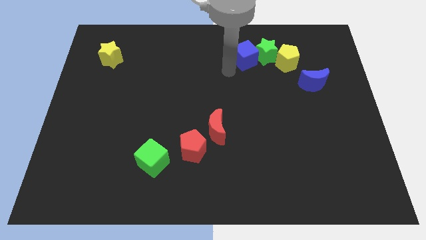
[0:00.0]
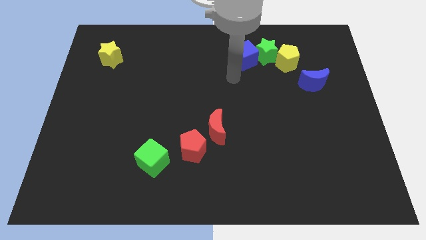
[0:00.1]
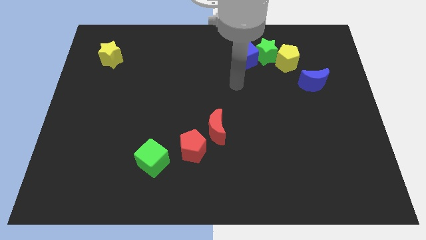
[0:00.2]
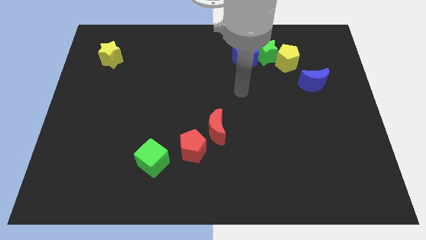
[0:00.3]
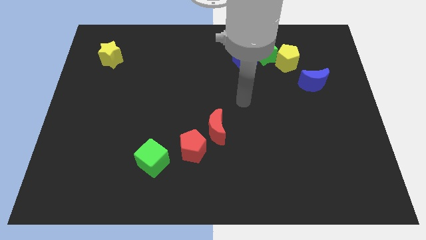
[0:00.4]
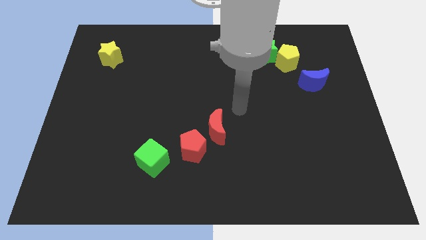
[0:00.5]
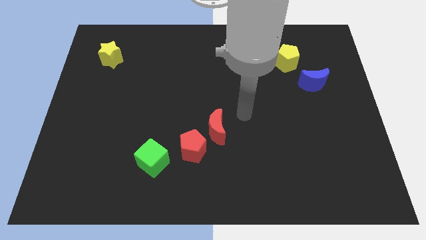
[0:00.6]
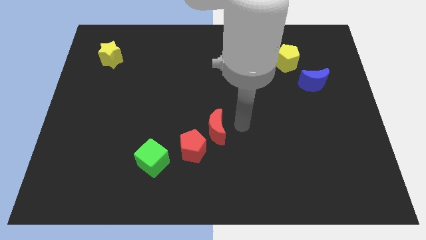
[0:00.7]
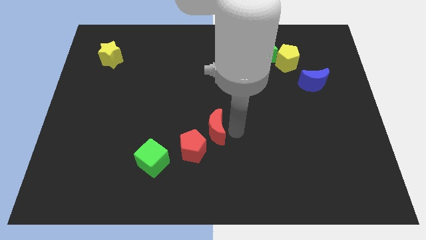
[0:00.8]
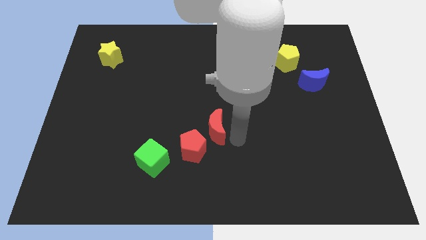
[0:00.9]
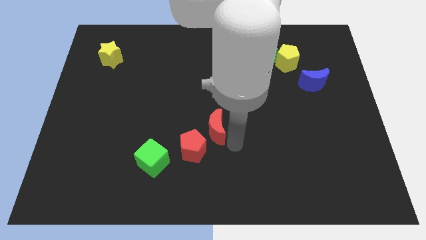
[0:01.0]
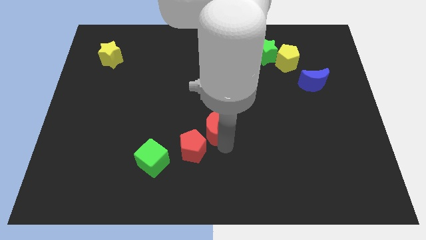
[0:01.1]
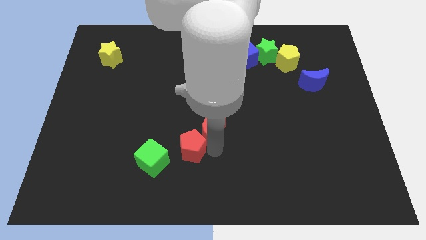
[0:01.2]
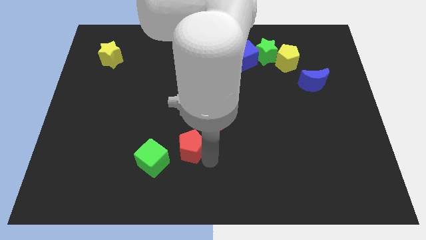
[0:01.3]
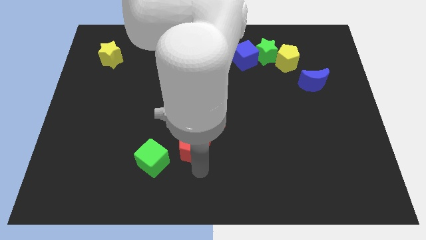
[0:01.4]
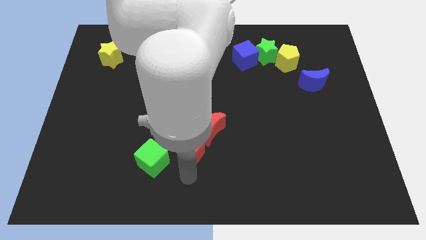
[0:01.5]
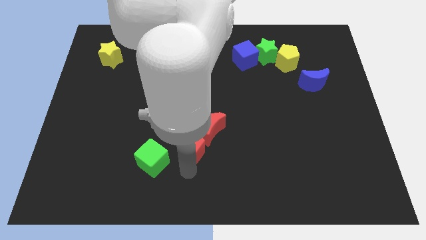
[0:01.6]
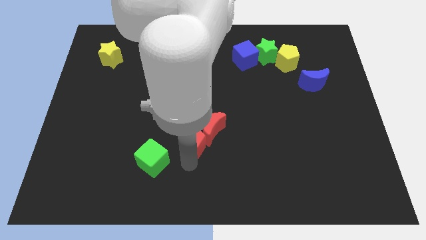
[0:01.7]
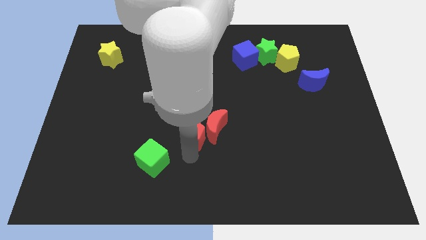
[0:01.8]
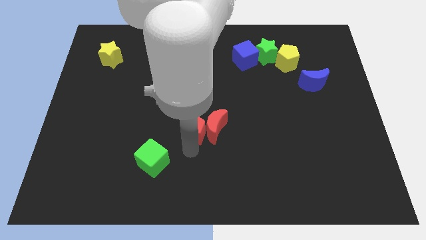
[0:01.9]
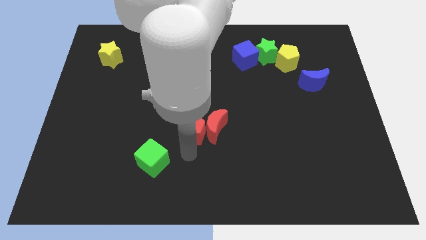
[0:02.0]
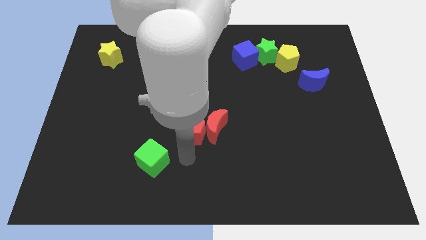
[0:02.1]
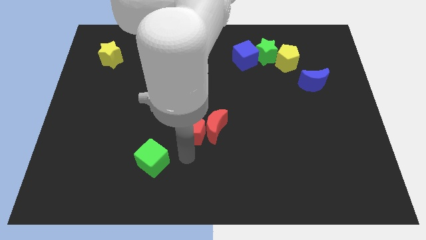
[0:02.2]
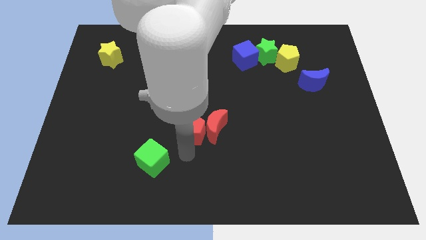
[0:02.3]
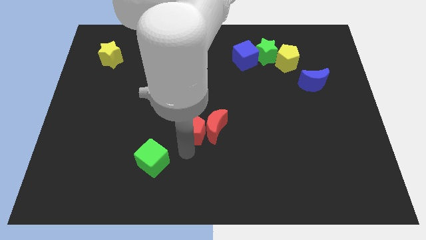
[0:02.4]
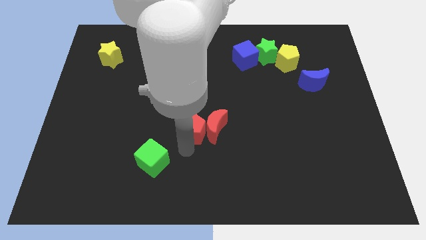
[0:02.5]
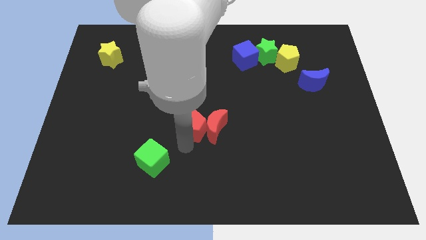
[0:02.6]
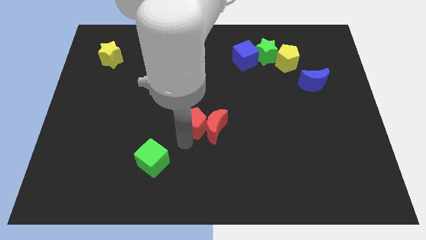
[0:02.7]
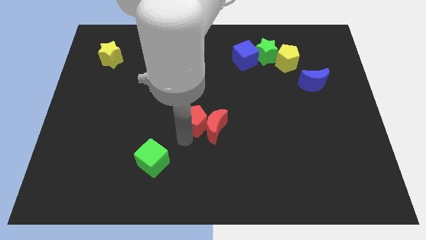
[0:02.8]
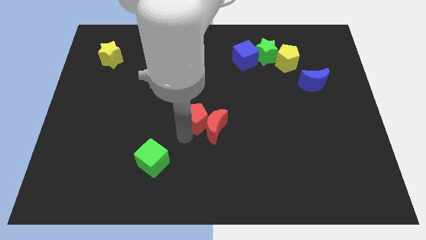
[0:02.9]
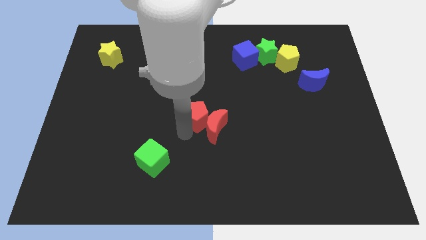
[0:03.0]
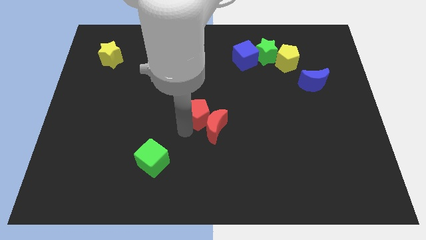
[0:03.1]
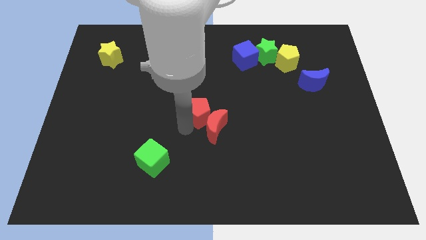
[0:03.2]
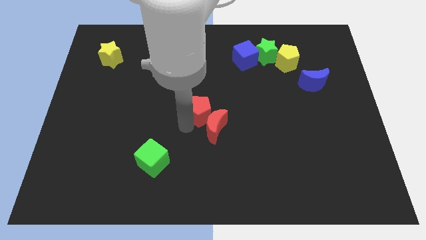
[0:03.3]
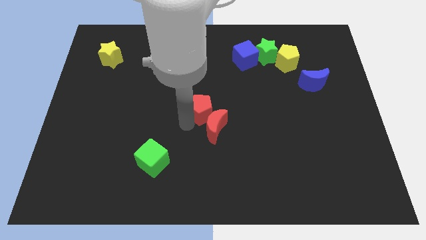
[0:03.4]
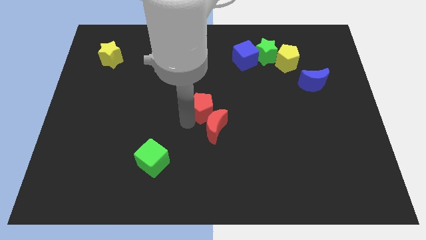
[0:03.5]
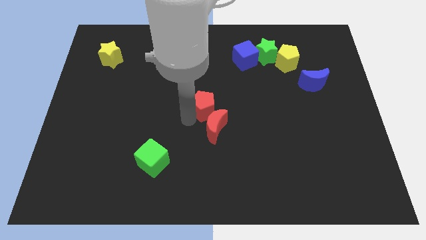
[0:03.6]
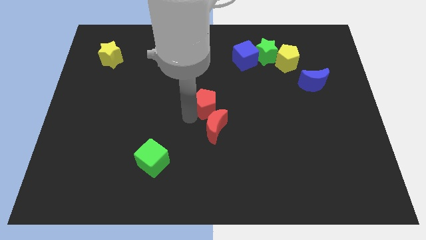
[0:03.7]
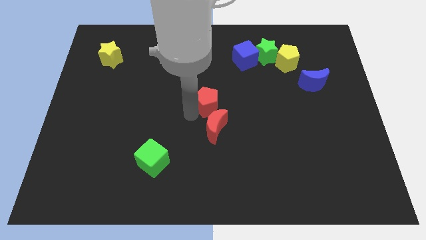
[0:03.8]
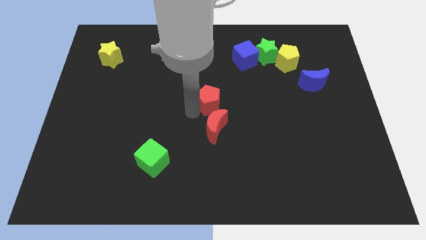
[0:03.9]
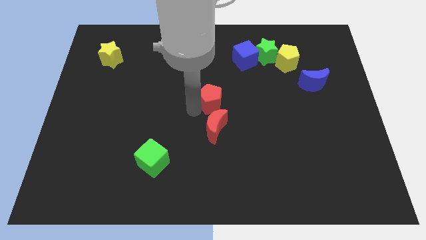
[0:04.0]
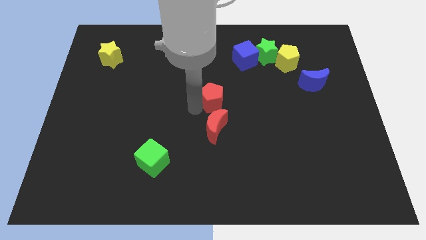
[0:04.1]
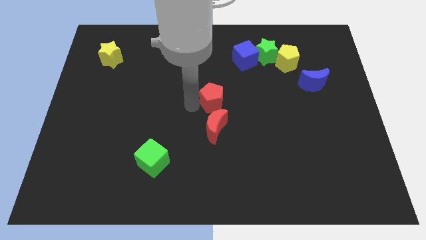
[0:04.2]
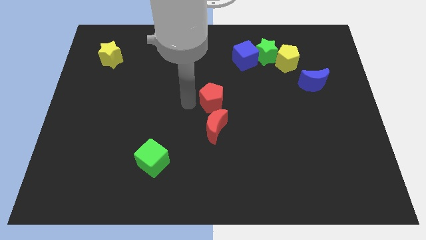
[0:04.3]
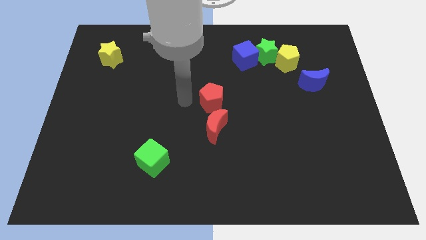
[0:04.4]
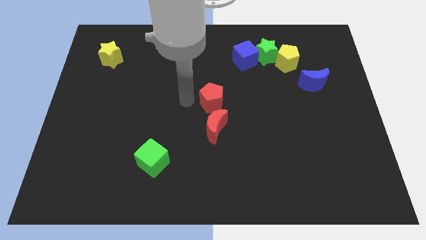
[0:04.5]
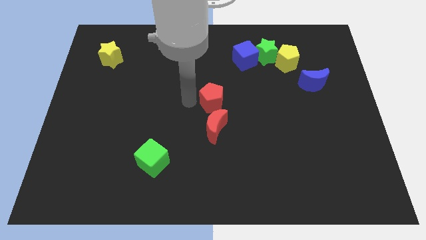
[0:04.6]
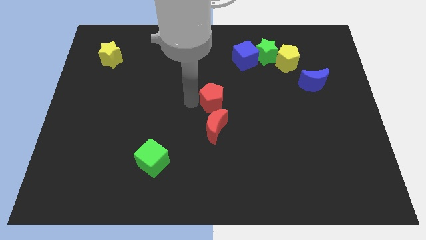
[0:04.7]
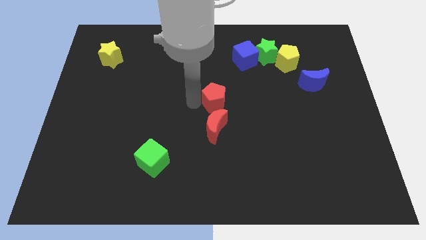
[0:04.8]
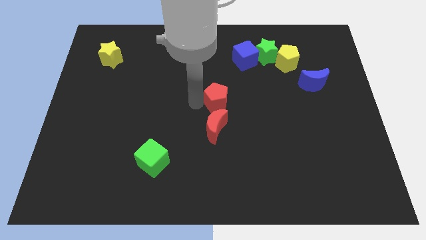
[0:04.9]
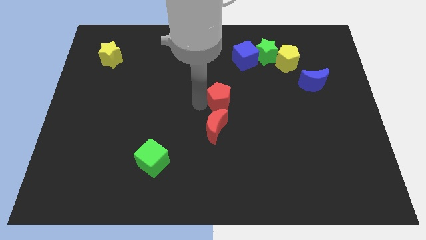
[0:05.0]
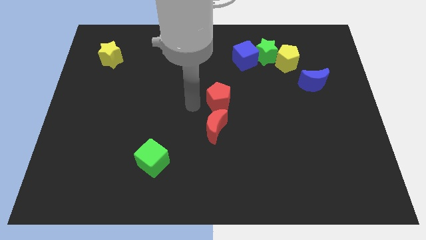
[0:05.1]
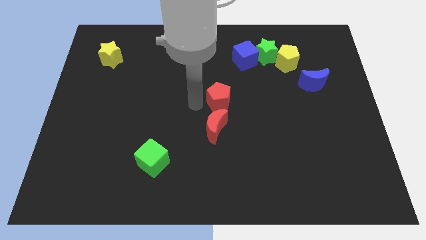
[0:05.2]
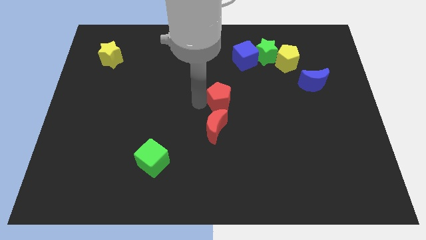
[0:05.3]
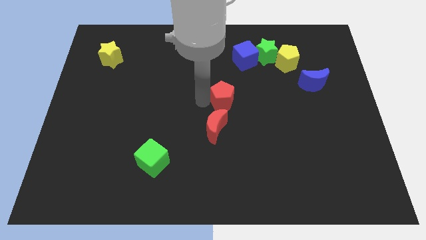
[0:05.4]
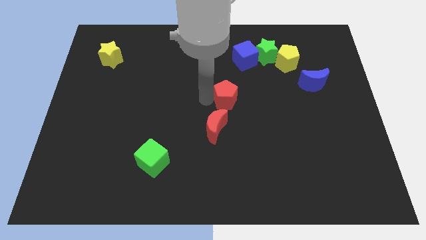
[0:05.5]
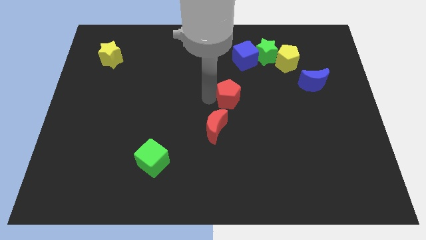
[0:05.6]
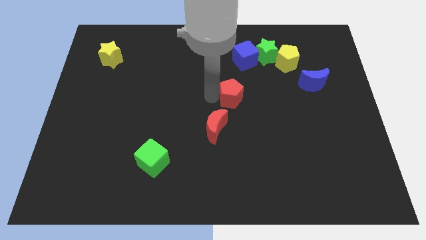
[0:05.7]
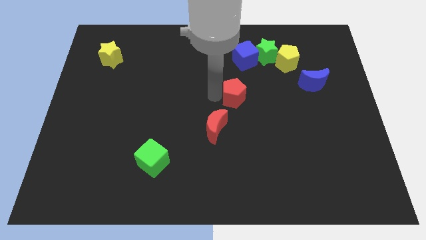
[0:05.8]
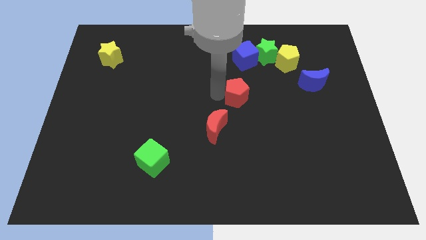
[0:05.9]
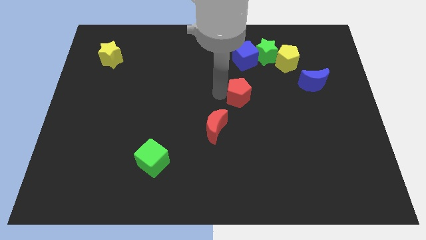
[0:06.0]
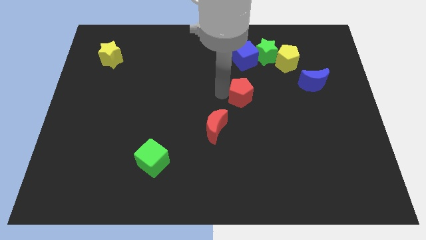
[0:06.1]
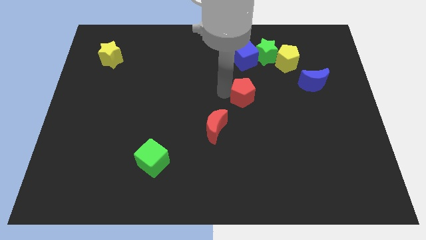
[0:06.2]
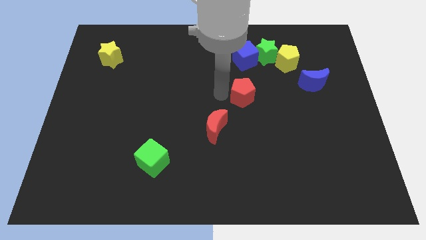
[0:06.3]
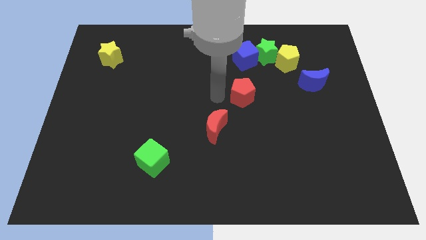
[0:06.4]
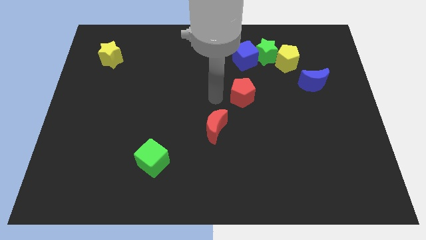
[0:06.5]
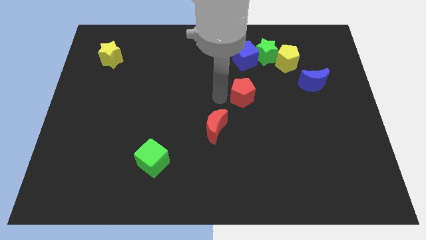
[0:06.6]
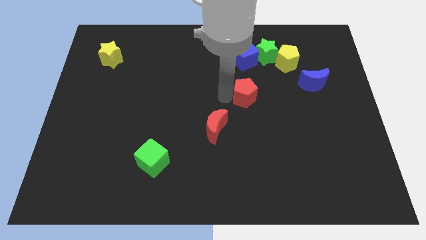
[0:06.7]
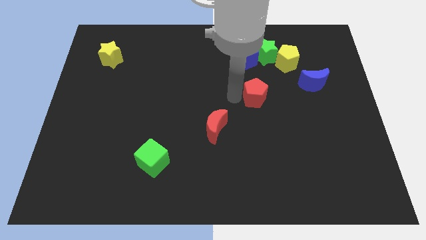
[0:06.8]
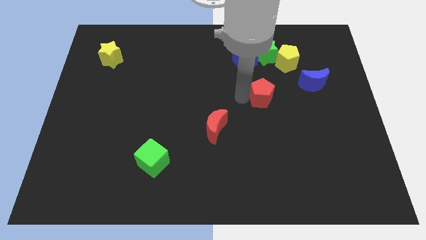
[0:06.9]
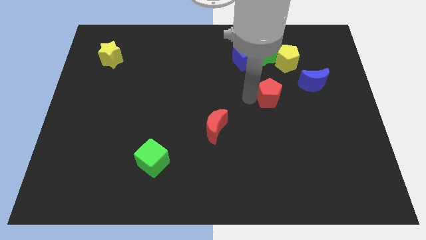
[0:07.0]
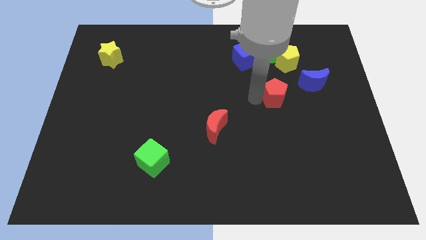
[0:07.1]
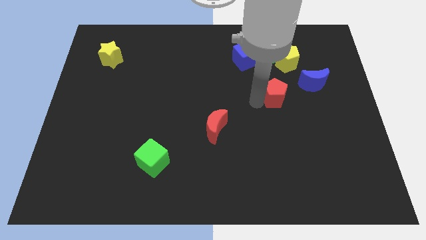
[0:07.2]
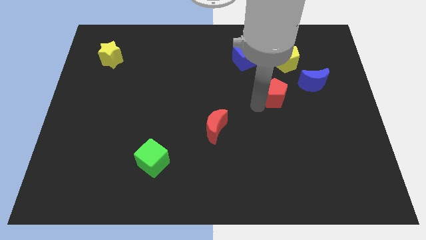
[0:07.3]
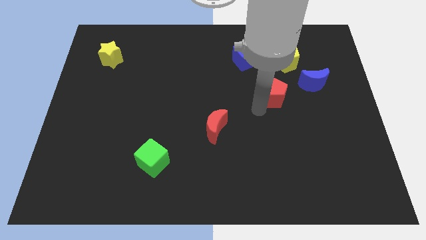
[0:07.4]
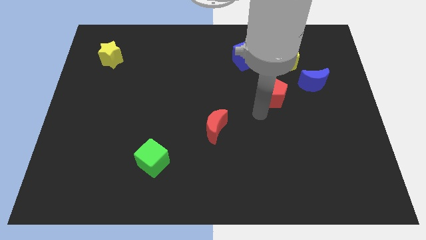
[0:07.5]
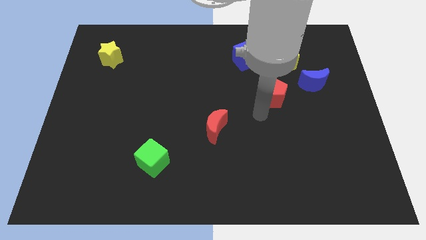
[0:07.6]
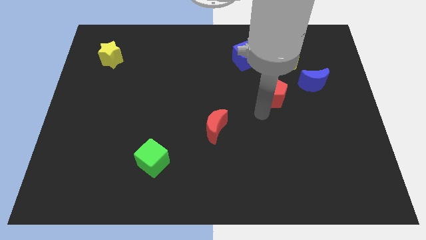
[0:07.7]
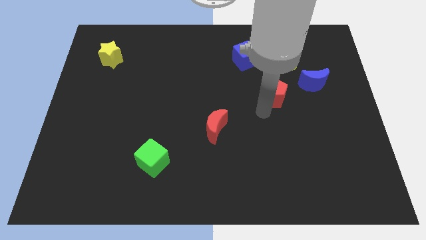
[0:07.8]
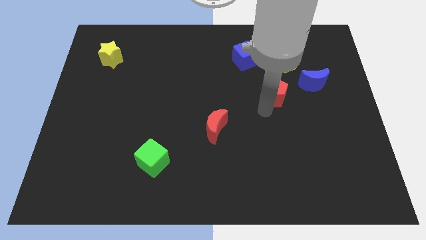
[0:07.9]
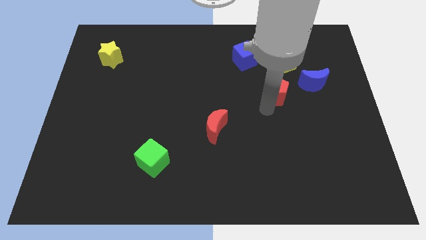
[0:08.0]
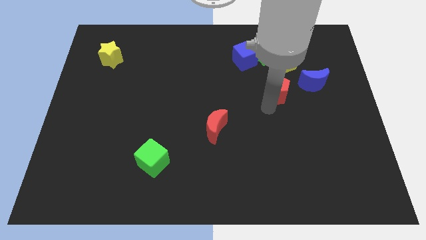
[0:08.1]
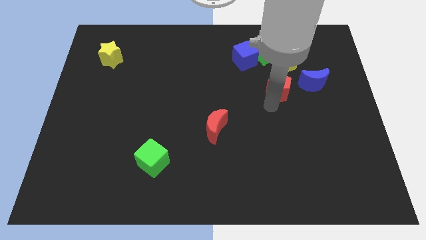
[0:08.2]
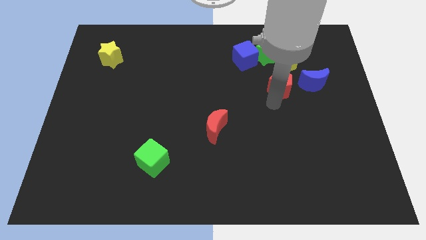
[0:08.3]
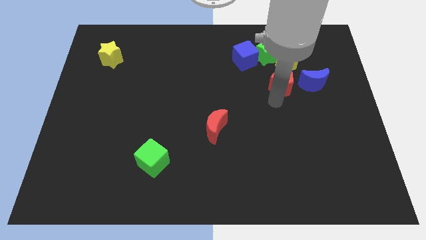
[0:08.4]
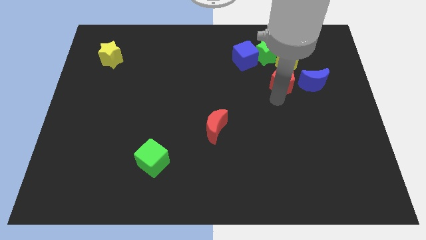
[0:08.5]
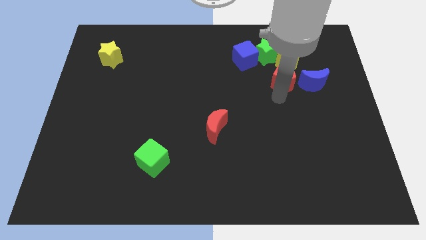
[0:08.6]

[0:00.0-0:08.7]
put the red pentagon to the bottom right side of the green star
